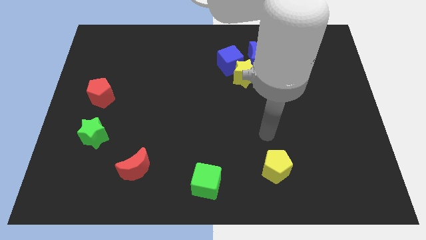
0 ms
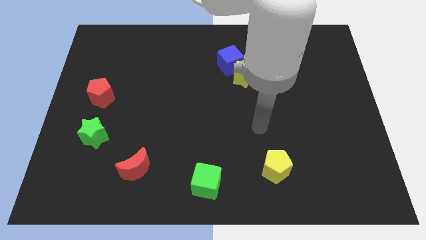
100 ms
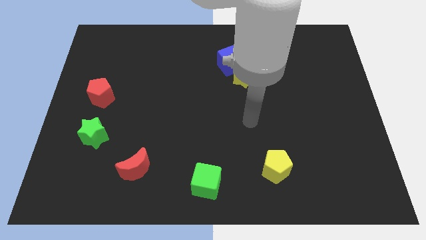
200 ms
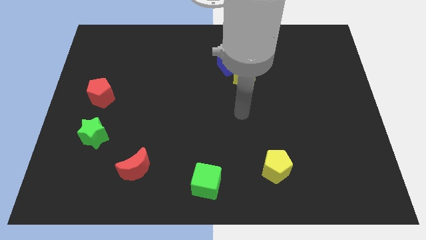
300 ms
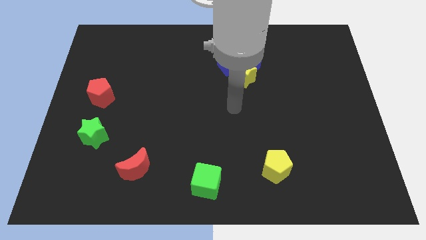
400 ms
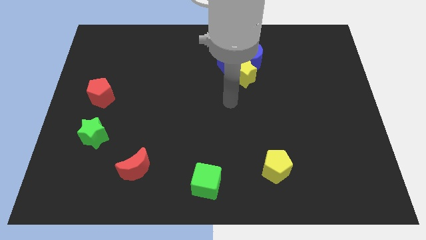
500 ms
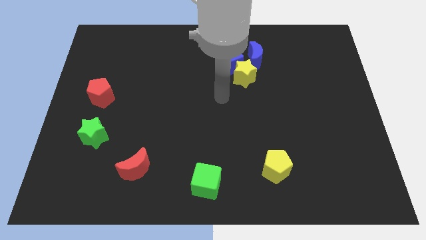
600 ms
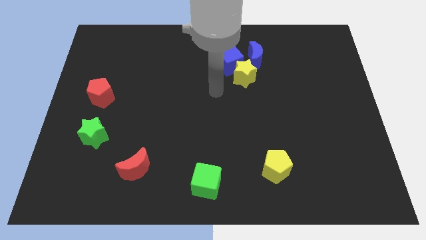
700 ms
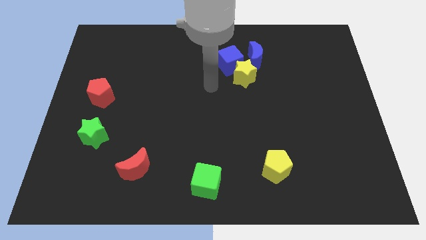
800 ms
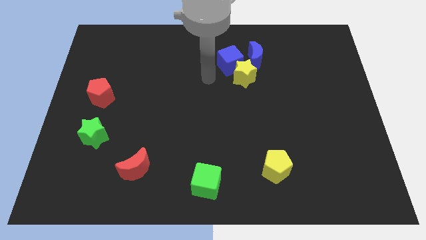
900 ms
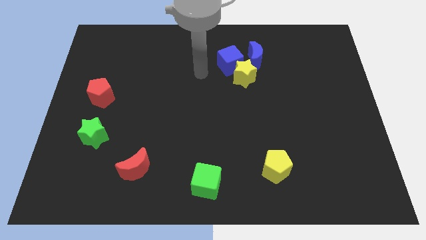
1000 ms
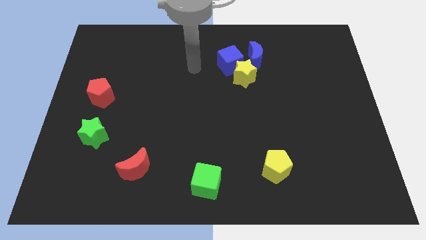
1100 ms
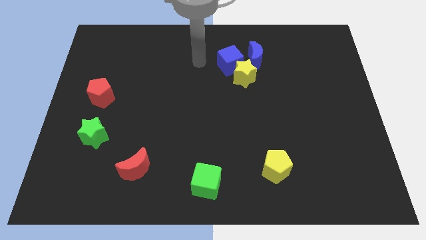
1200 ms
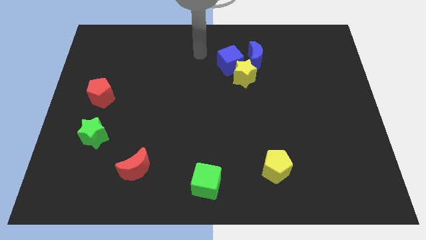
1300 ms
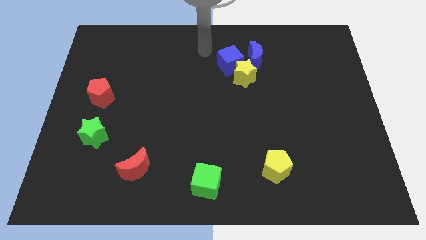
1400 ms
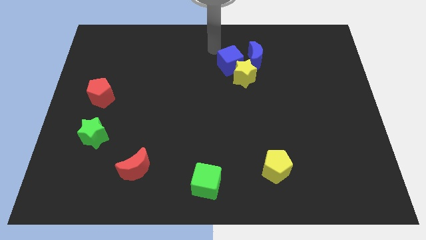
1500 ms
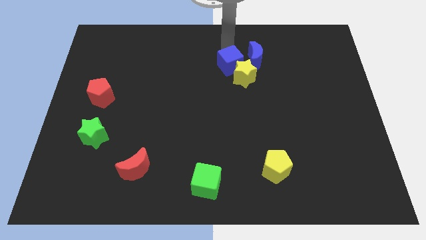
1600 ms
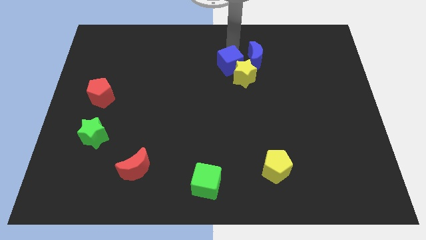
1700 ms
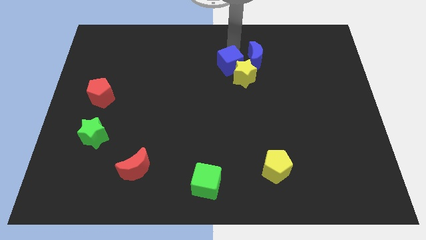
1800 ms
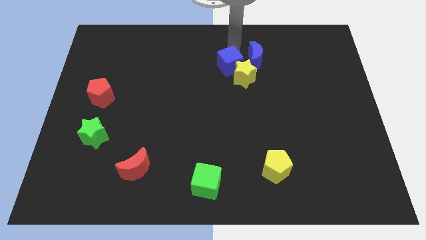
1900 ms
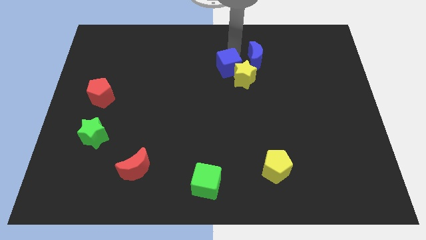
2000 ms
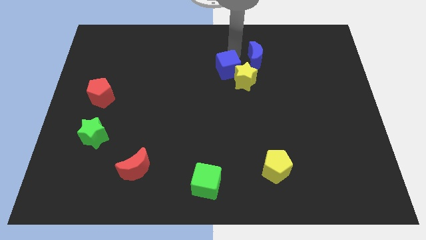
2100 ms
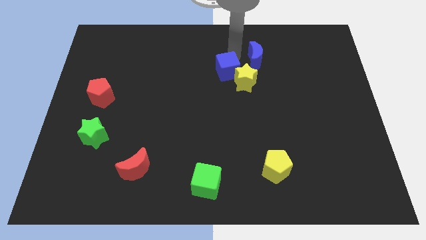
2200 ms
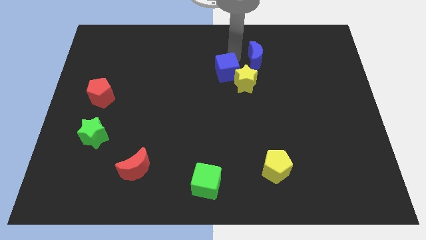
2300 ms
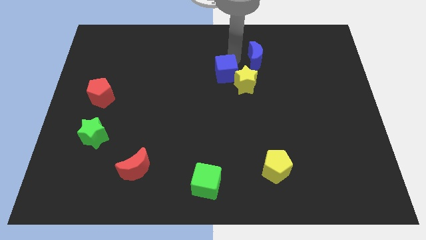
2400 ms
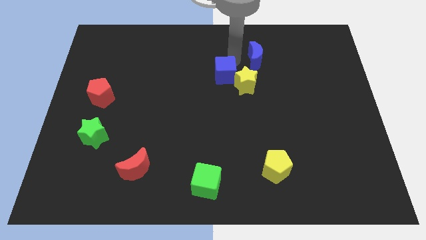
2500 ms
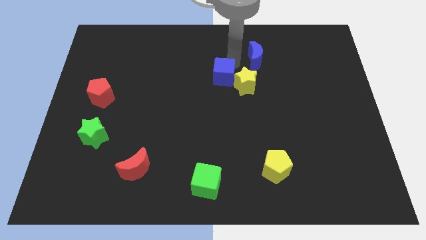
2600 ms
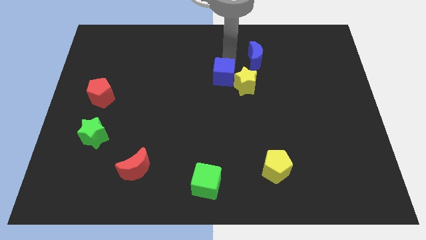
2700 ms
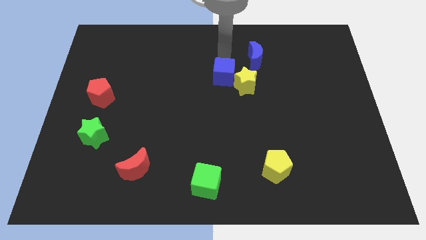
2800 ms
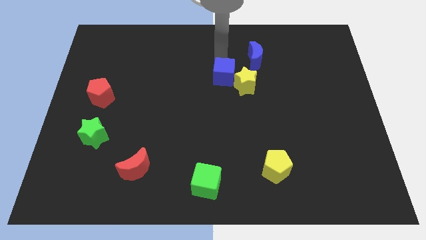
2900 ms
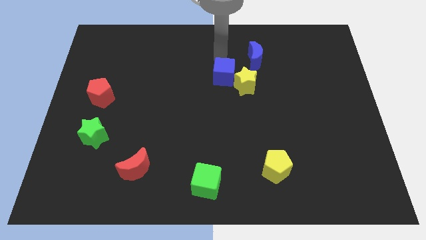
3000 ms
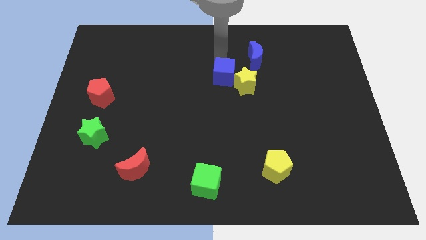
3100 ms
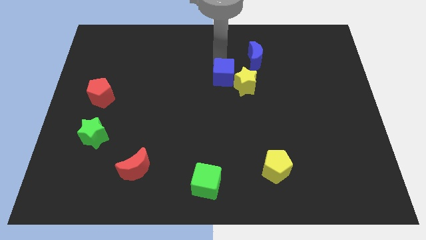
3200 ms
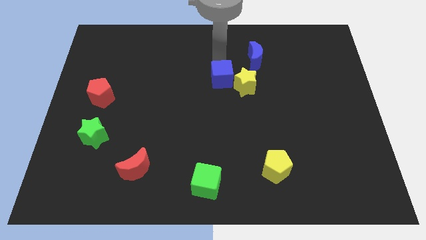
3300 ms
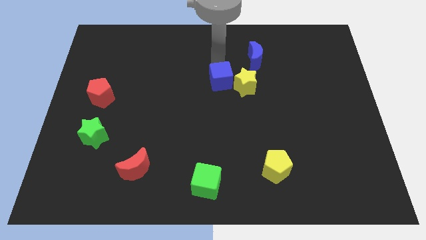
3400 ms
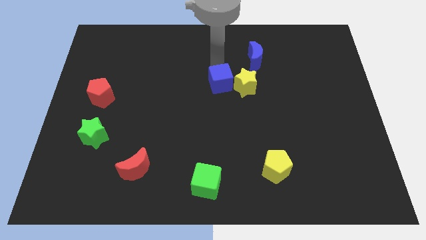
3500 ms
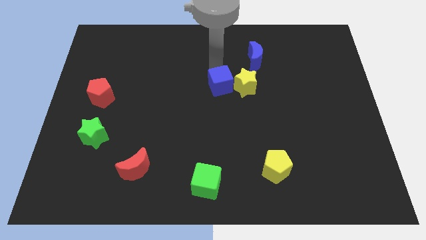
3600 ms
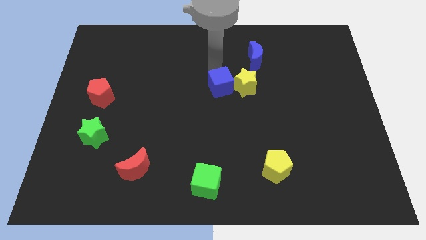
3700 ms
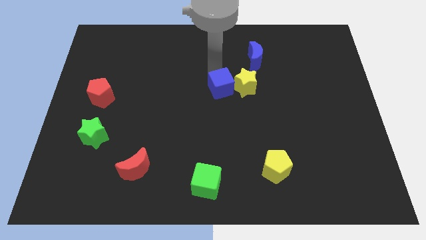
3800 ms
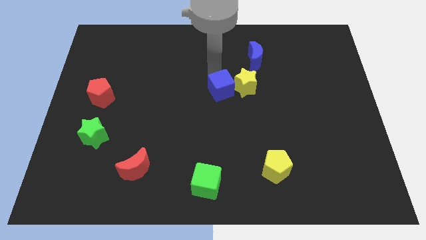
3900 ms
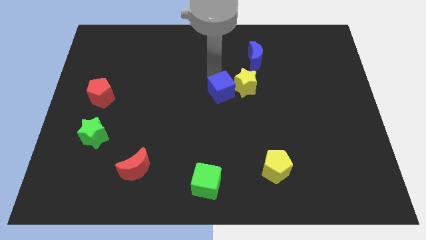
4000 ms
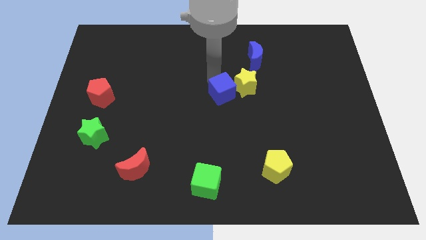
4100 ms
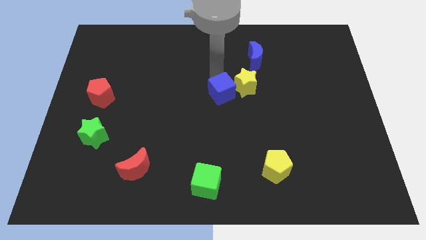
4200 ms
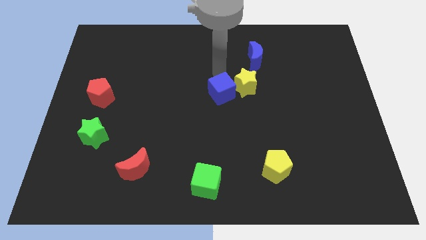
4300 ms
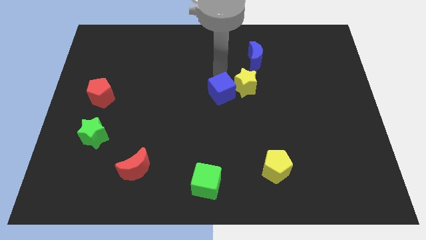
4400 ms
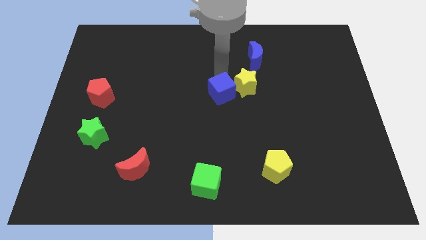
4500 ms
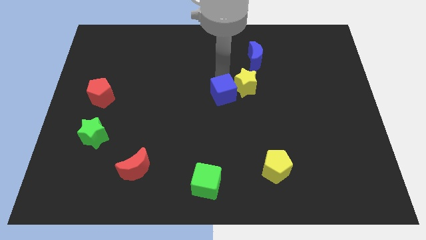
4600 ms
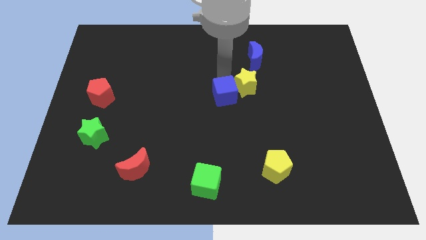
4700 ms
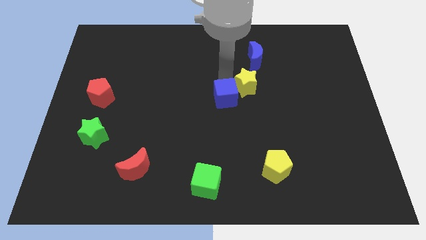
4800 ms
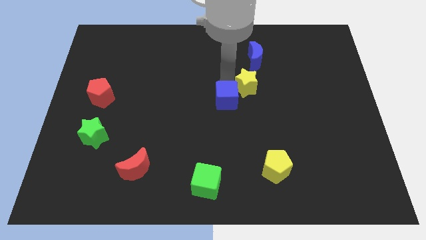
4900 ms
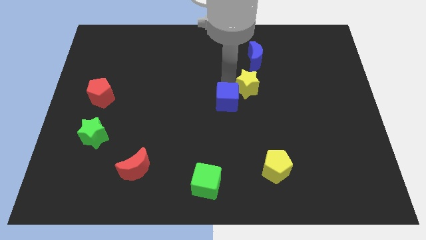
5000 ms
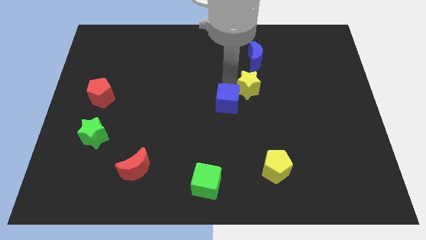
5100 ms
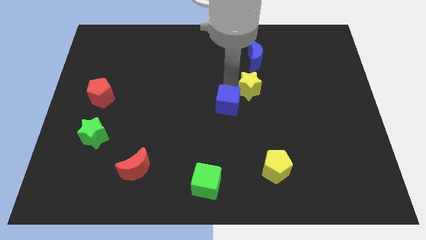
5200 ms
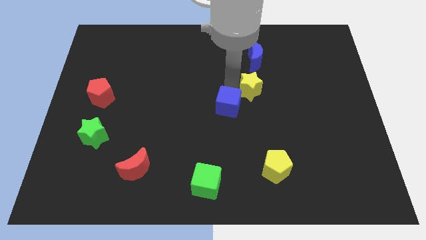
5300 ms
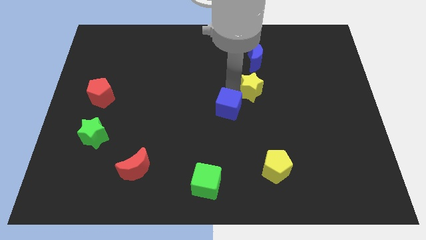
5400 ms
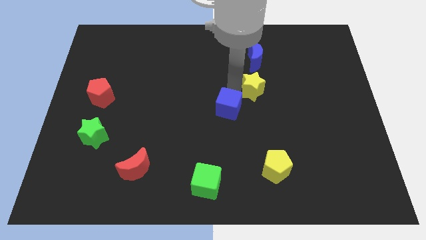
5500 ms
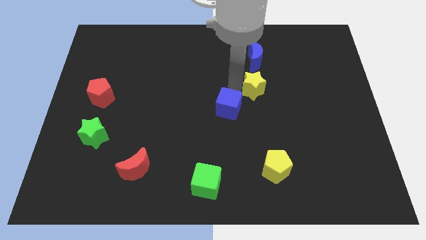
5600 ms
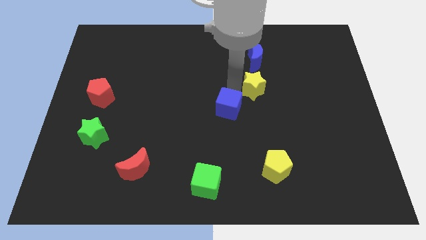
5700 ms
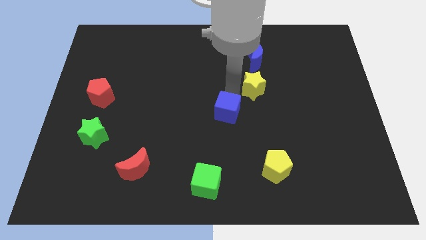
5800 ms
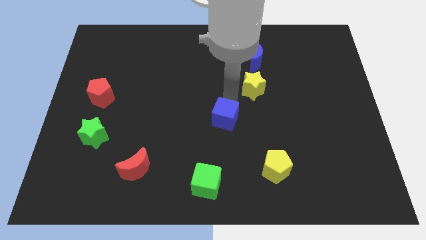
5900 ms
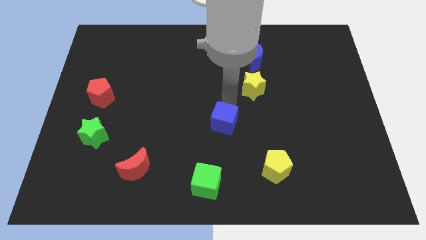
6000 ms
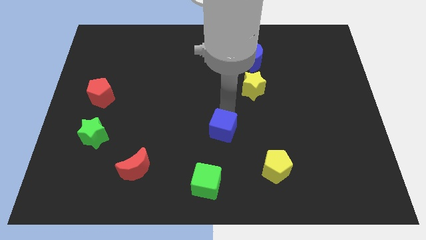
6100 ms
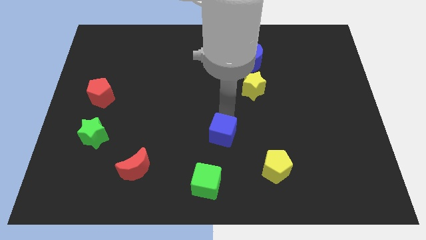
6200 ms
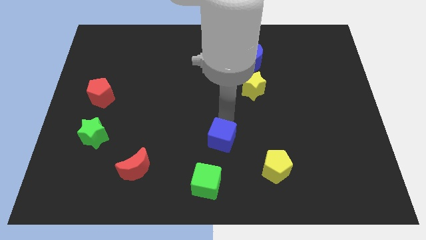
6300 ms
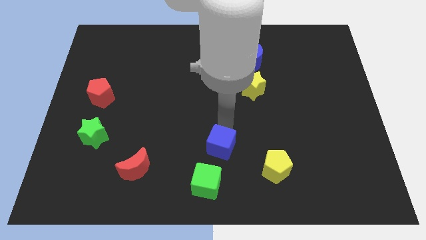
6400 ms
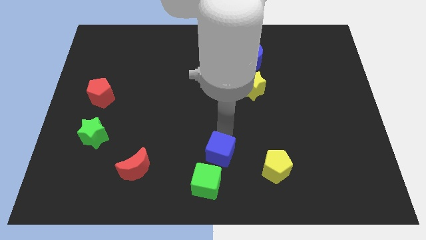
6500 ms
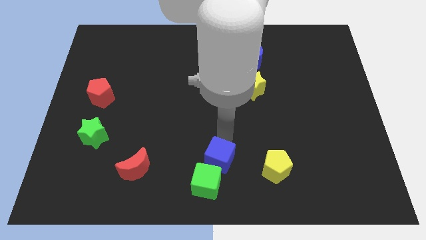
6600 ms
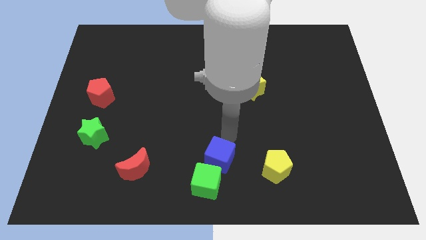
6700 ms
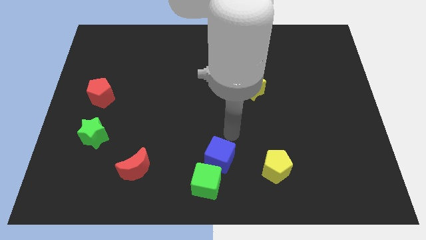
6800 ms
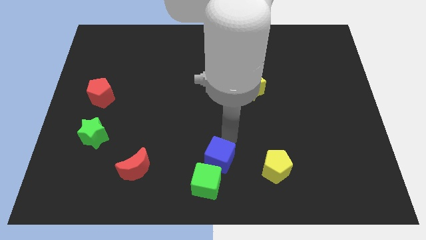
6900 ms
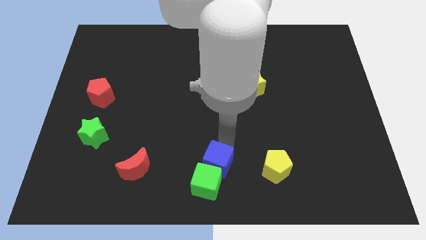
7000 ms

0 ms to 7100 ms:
put the blue cube next to the green cube

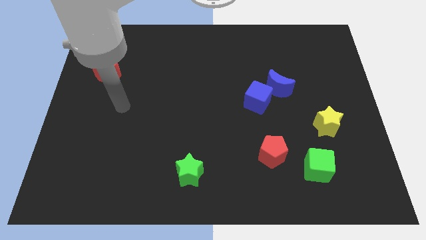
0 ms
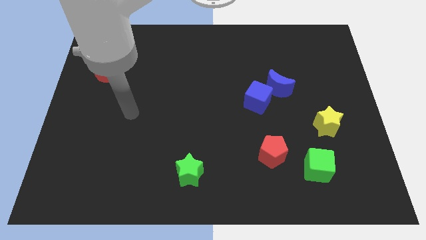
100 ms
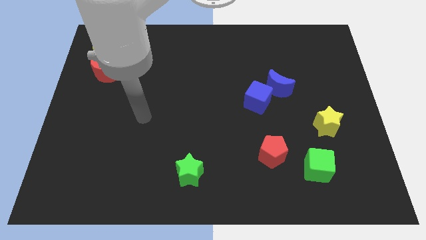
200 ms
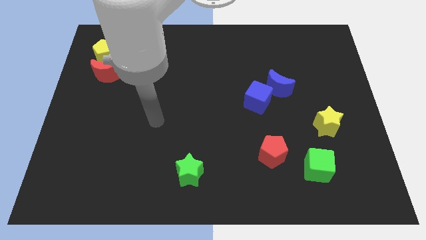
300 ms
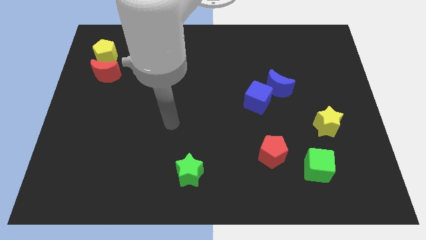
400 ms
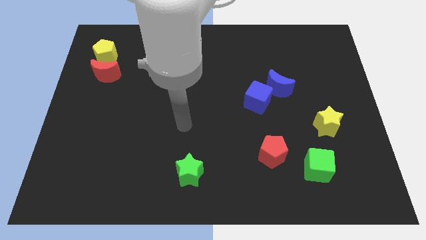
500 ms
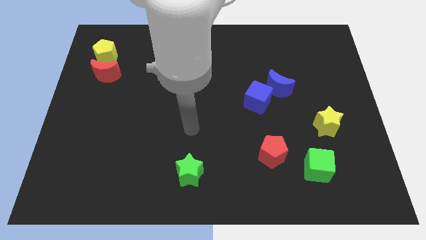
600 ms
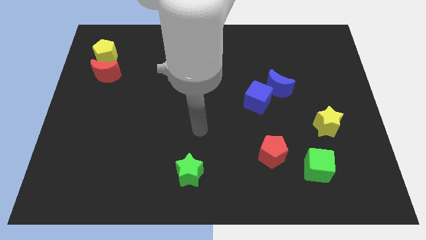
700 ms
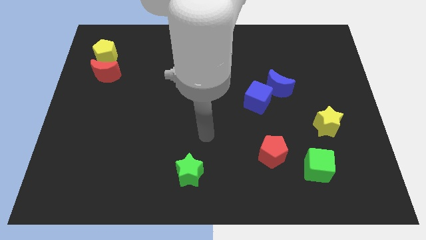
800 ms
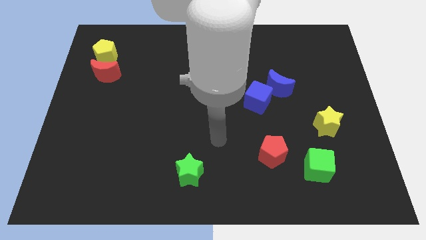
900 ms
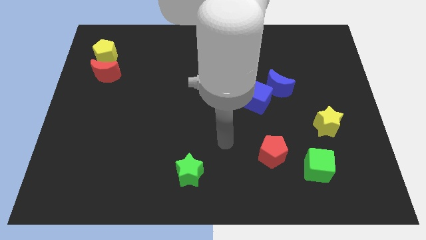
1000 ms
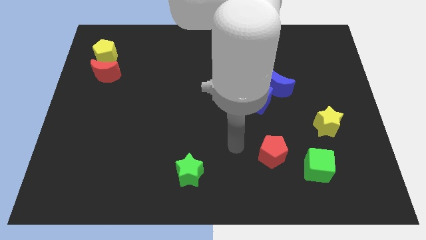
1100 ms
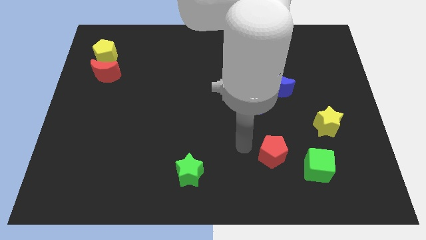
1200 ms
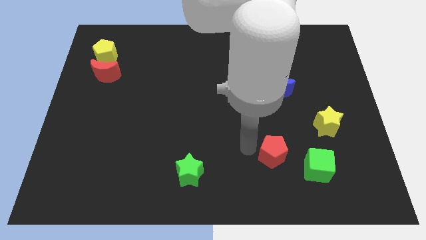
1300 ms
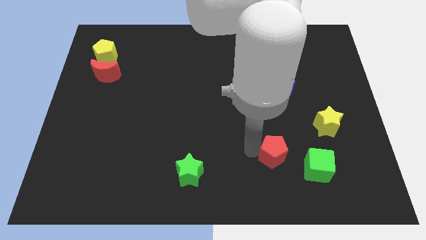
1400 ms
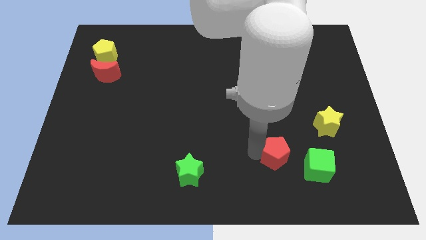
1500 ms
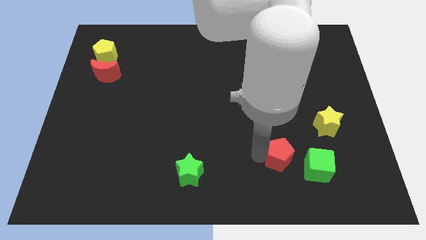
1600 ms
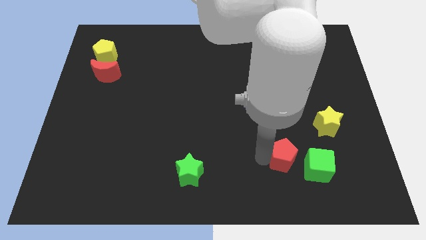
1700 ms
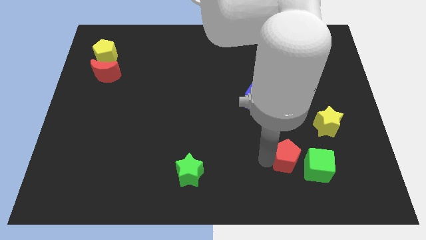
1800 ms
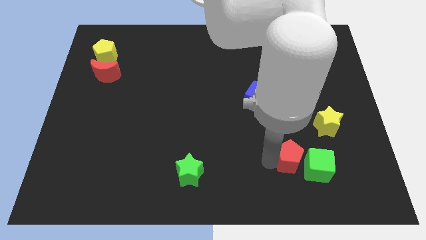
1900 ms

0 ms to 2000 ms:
move the red pentagon next to the green cube
